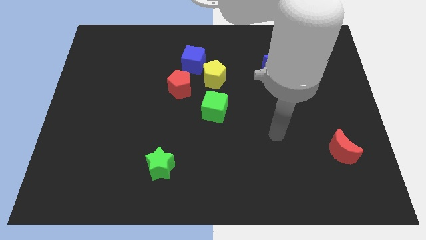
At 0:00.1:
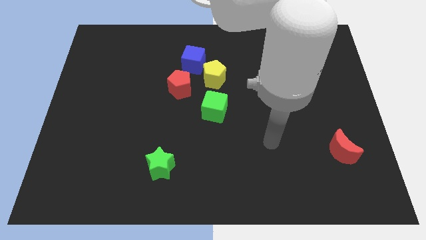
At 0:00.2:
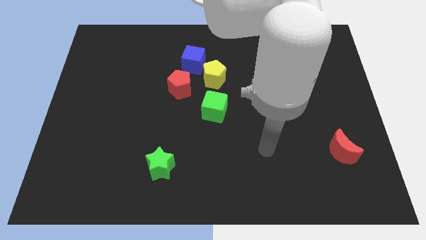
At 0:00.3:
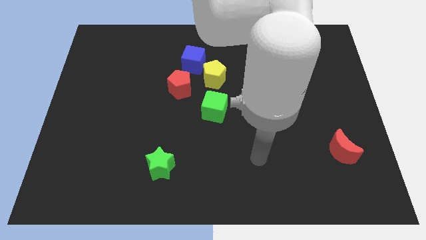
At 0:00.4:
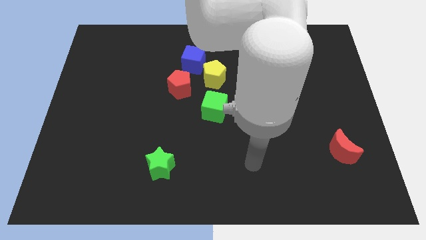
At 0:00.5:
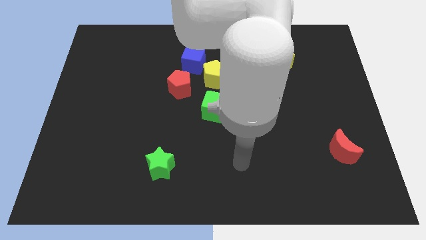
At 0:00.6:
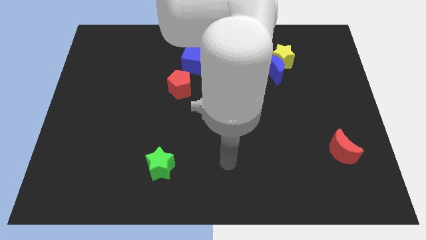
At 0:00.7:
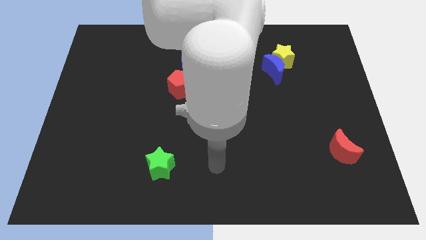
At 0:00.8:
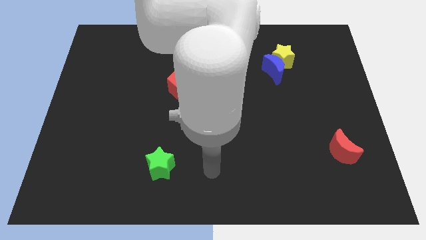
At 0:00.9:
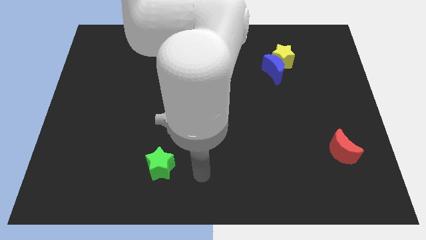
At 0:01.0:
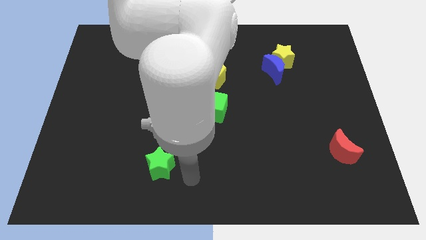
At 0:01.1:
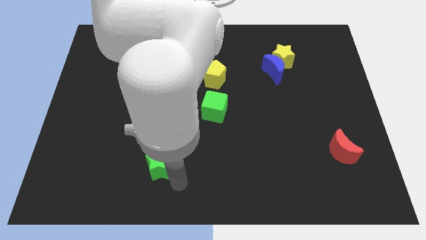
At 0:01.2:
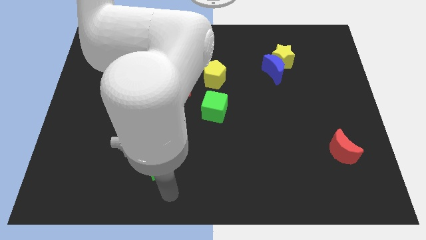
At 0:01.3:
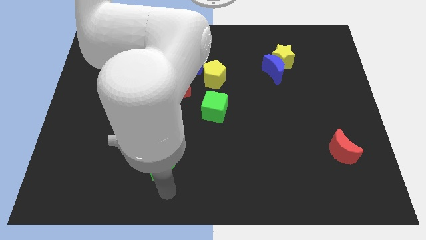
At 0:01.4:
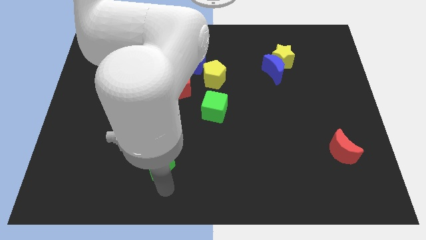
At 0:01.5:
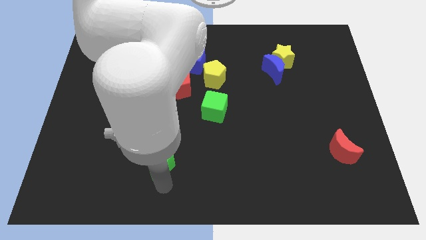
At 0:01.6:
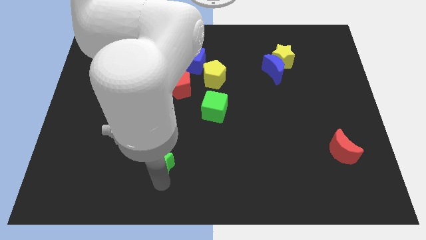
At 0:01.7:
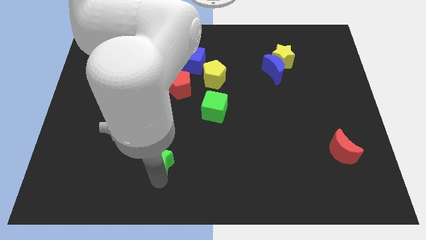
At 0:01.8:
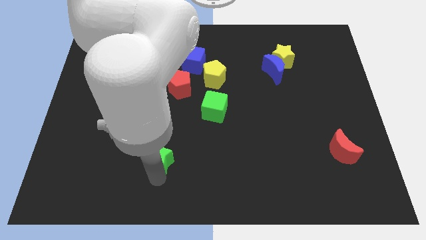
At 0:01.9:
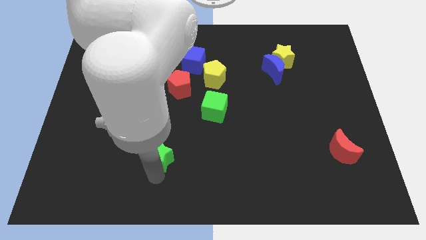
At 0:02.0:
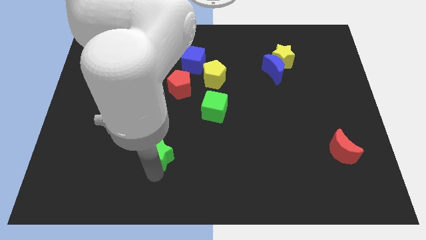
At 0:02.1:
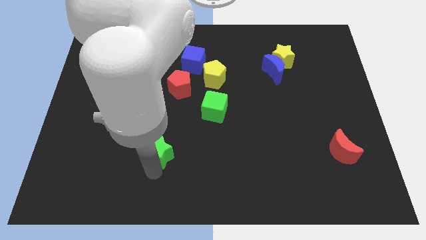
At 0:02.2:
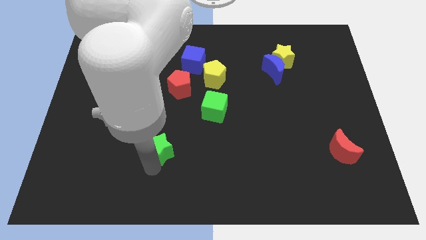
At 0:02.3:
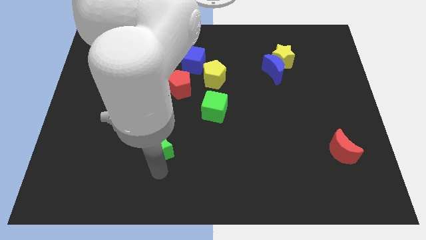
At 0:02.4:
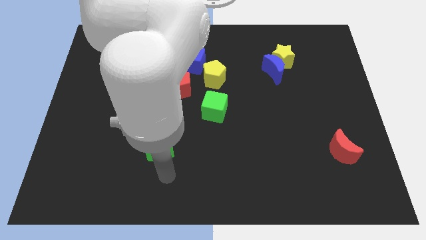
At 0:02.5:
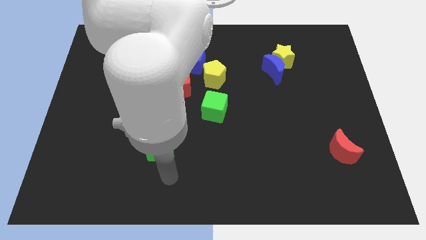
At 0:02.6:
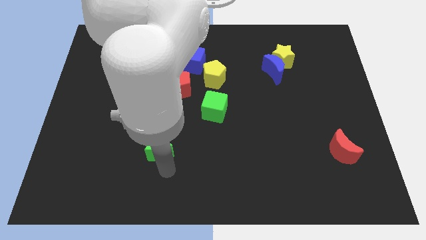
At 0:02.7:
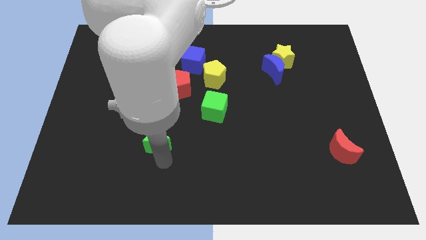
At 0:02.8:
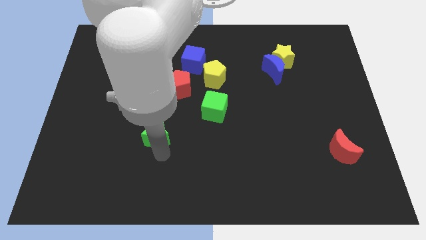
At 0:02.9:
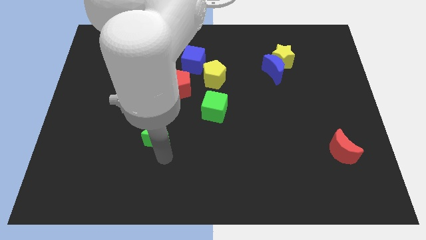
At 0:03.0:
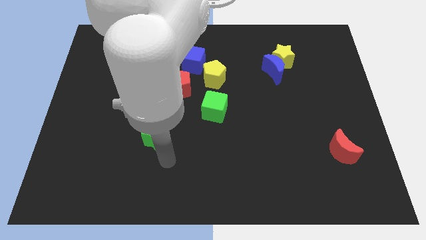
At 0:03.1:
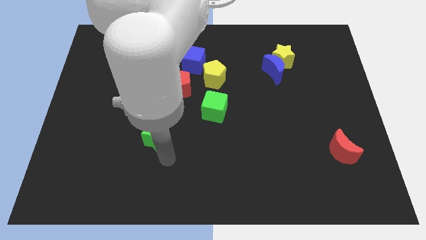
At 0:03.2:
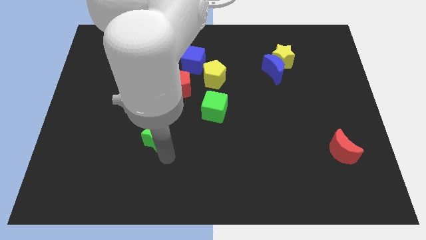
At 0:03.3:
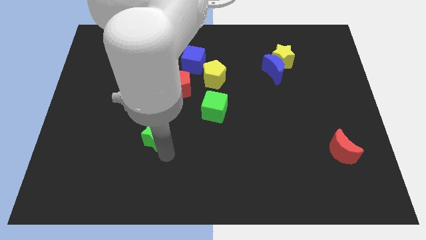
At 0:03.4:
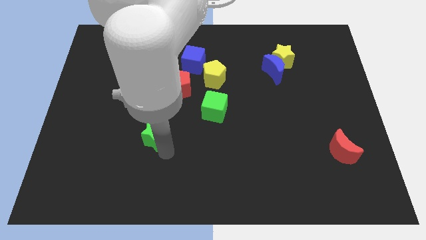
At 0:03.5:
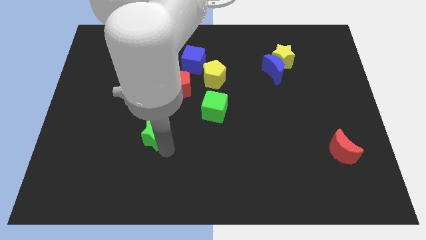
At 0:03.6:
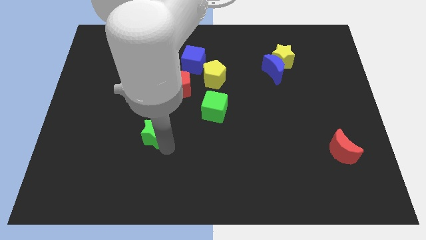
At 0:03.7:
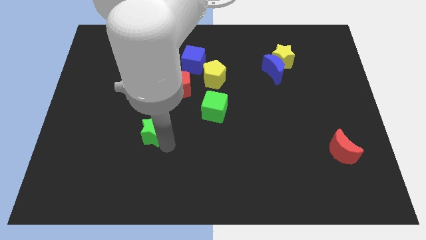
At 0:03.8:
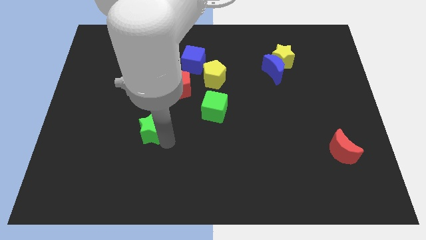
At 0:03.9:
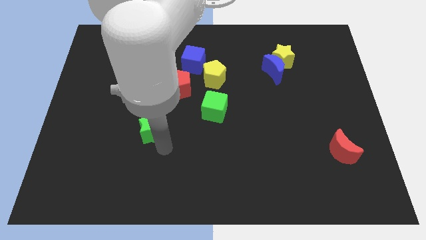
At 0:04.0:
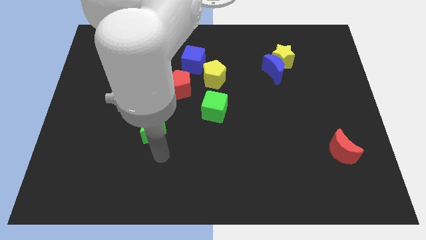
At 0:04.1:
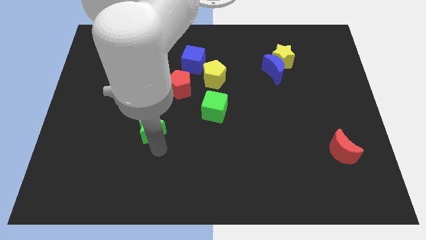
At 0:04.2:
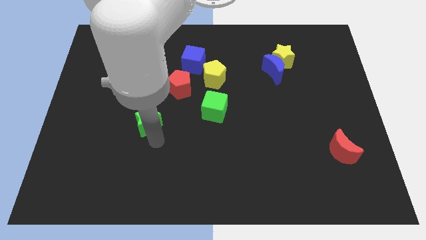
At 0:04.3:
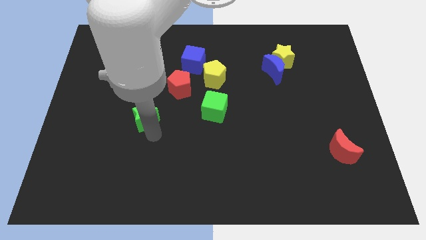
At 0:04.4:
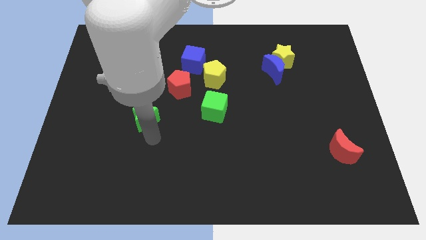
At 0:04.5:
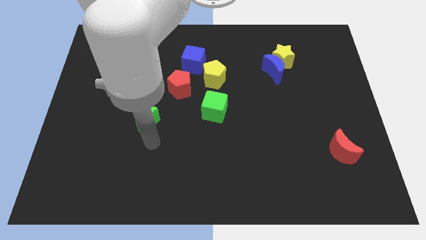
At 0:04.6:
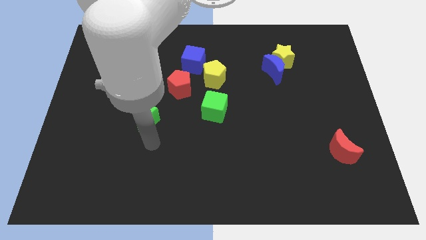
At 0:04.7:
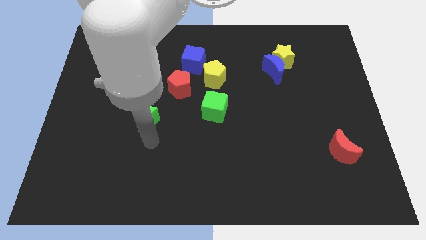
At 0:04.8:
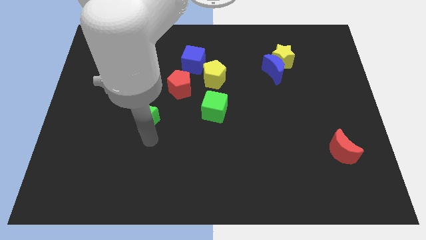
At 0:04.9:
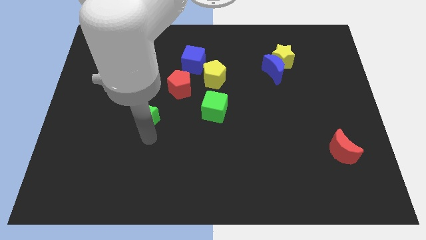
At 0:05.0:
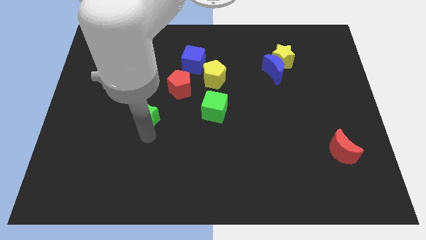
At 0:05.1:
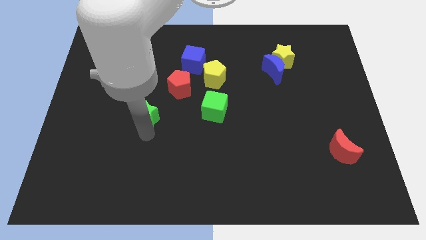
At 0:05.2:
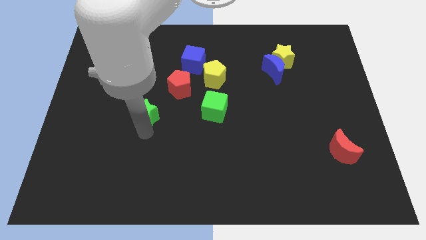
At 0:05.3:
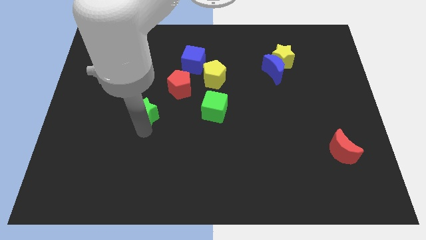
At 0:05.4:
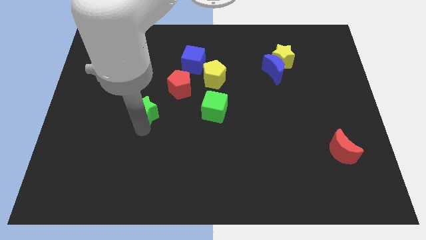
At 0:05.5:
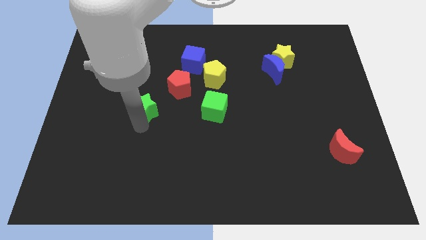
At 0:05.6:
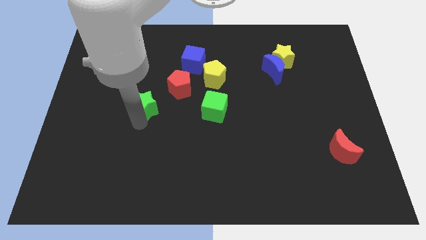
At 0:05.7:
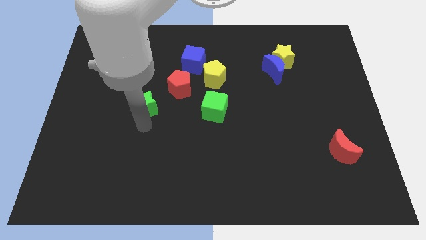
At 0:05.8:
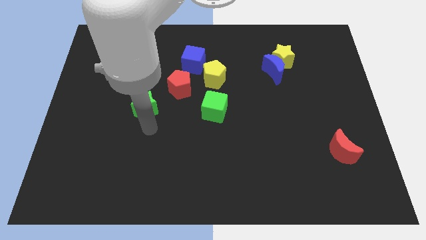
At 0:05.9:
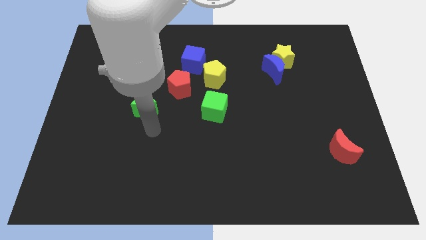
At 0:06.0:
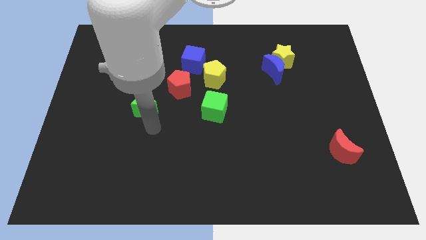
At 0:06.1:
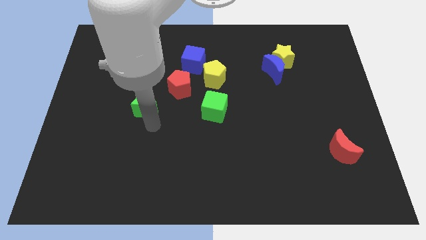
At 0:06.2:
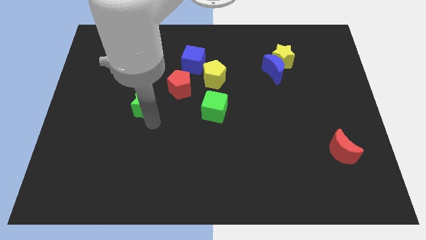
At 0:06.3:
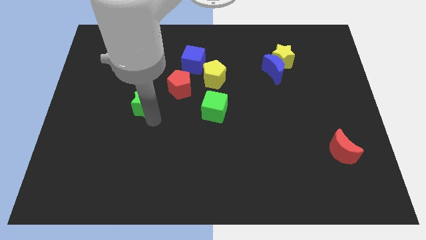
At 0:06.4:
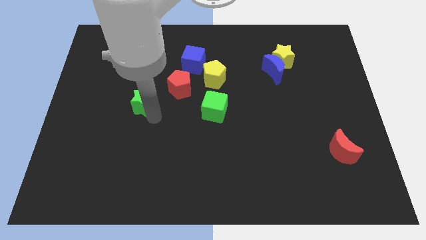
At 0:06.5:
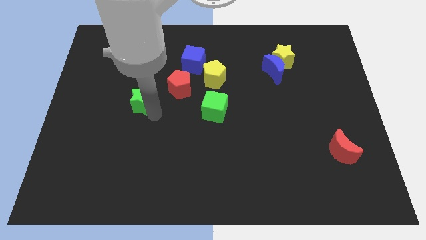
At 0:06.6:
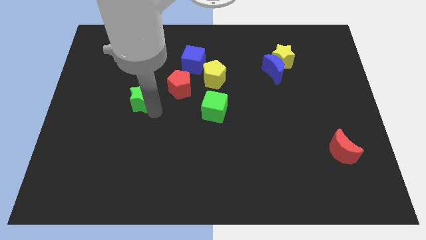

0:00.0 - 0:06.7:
move the green star to the left side of the red pentagon

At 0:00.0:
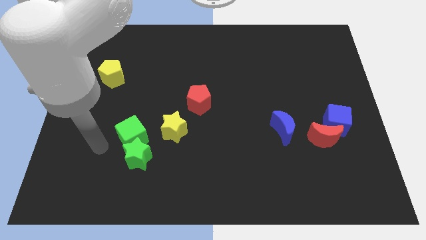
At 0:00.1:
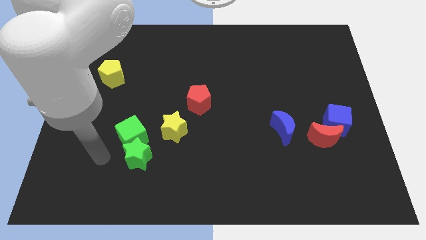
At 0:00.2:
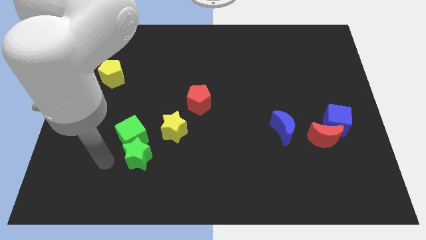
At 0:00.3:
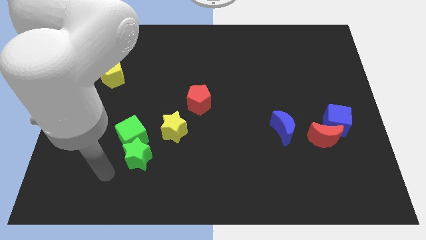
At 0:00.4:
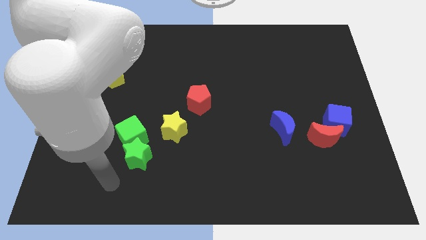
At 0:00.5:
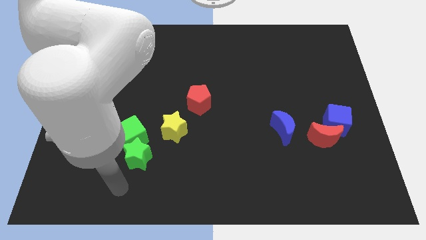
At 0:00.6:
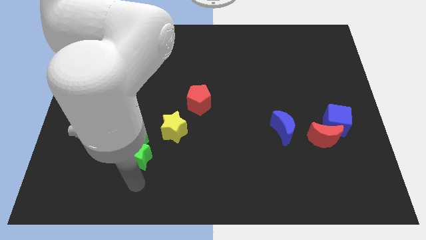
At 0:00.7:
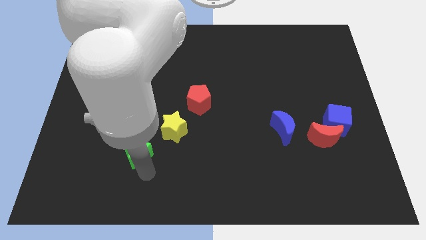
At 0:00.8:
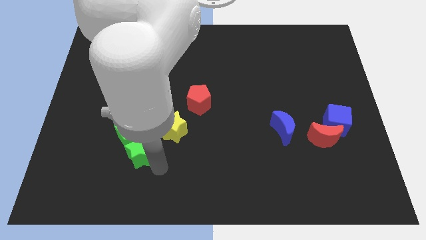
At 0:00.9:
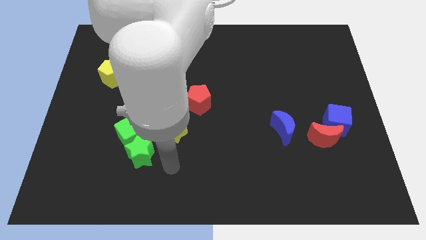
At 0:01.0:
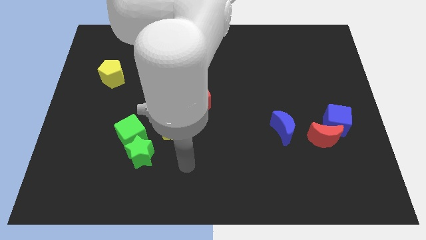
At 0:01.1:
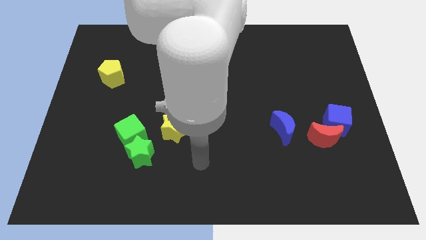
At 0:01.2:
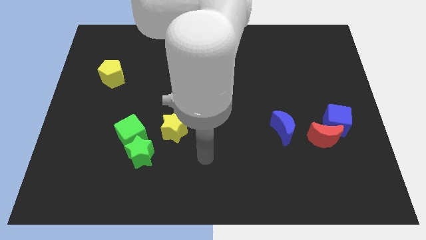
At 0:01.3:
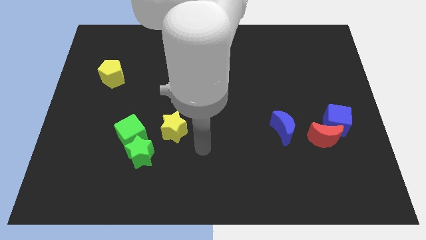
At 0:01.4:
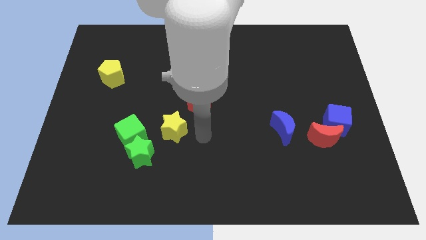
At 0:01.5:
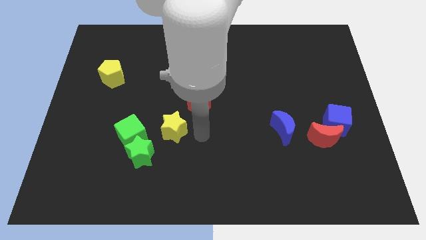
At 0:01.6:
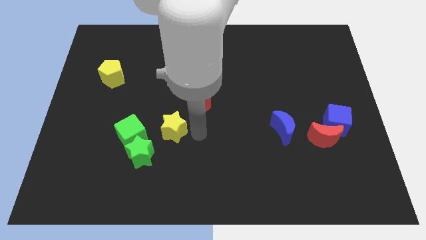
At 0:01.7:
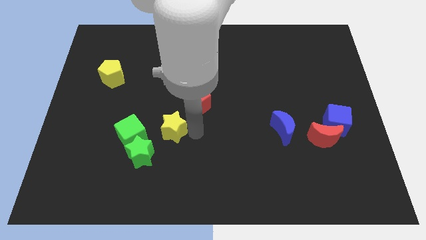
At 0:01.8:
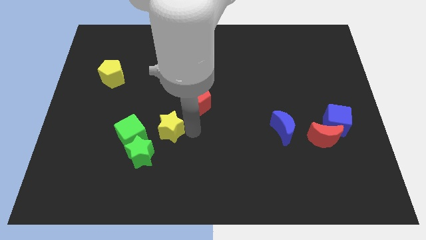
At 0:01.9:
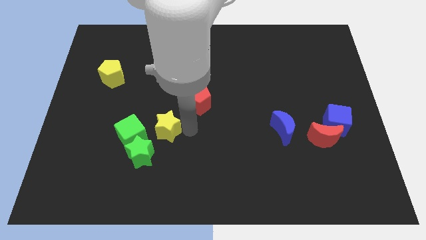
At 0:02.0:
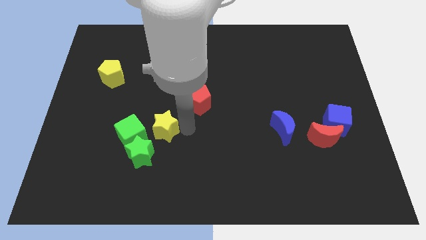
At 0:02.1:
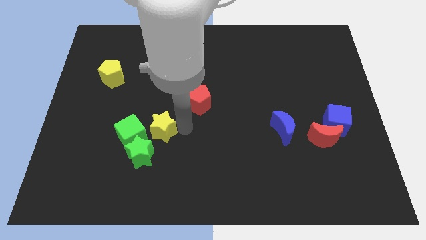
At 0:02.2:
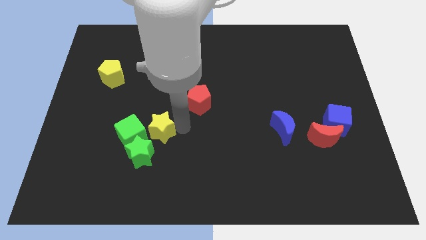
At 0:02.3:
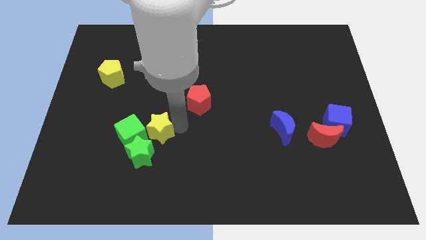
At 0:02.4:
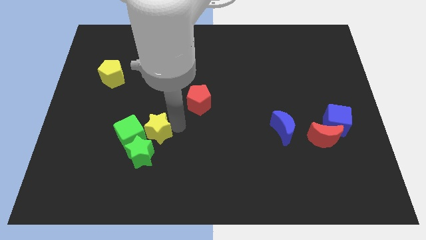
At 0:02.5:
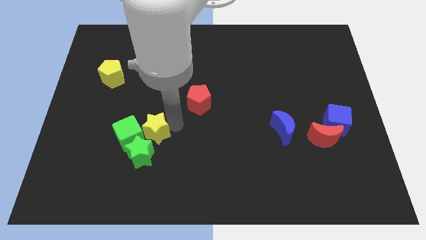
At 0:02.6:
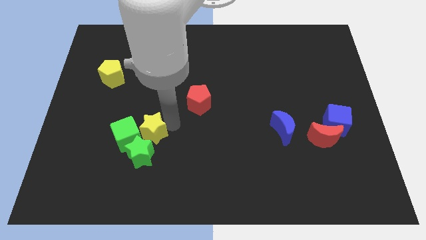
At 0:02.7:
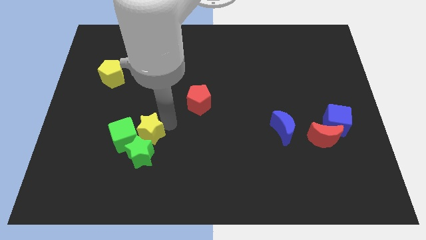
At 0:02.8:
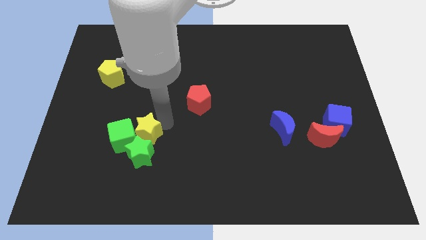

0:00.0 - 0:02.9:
push the yellow star diagonally up and to the left of the green star
